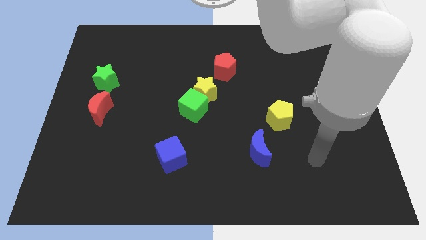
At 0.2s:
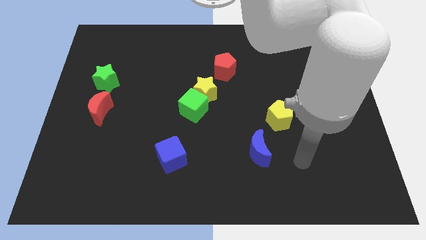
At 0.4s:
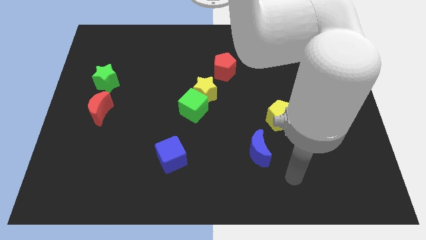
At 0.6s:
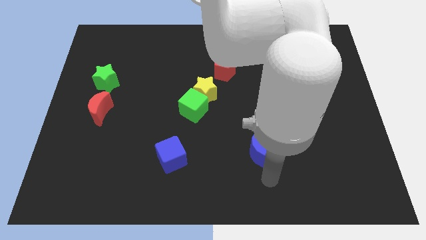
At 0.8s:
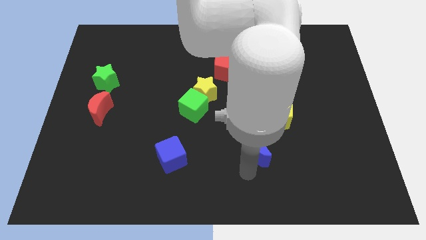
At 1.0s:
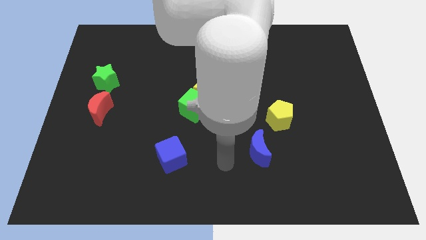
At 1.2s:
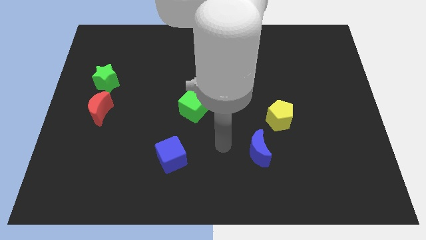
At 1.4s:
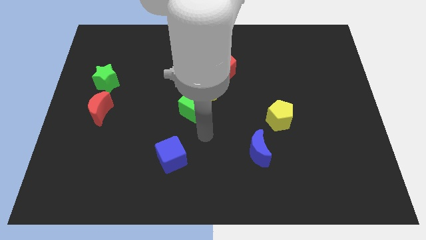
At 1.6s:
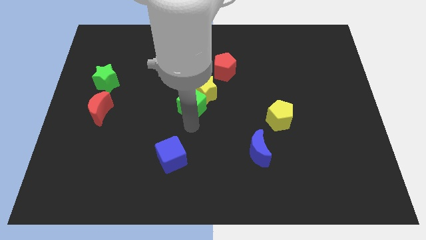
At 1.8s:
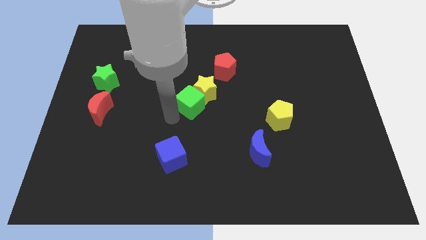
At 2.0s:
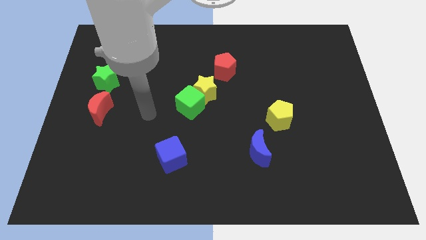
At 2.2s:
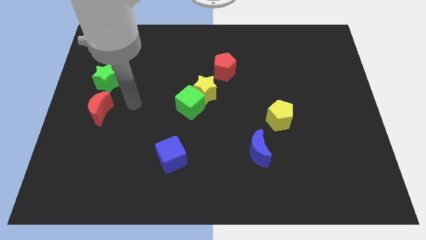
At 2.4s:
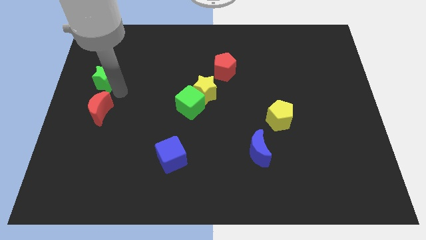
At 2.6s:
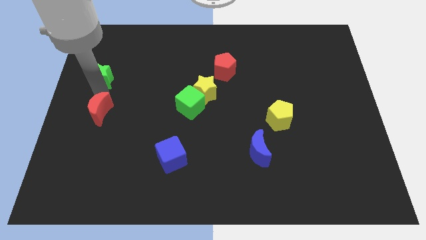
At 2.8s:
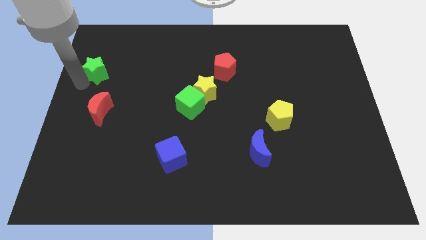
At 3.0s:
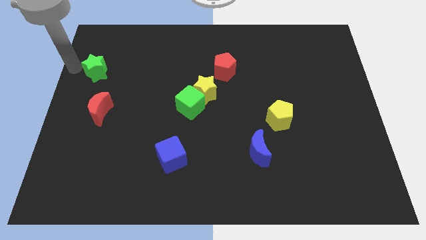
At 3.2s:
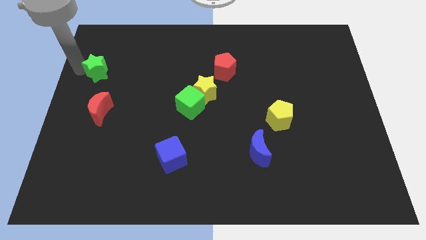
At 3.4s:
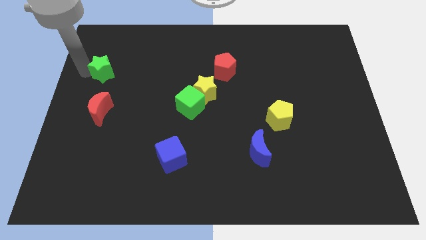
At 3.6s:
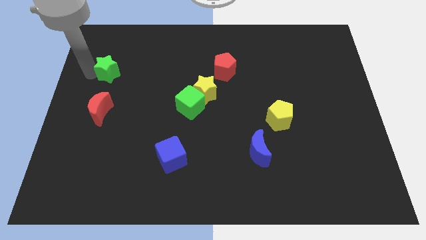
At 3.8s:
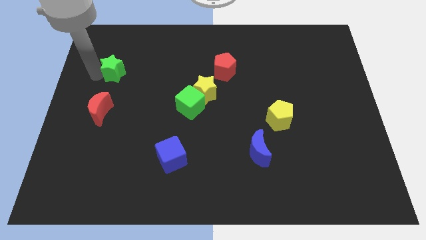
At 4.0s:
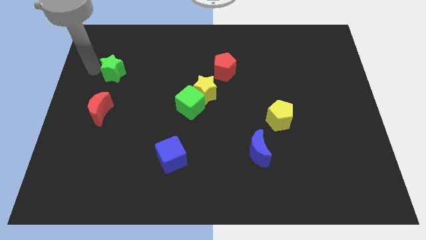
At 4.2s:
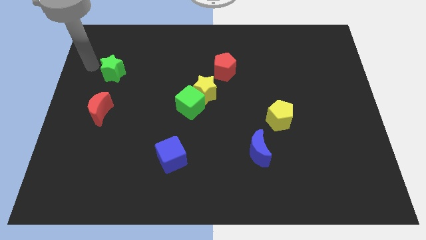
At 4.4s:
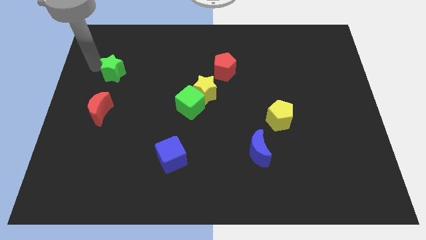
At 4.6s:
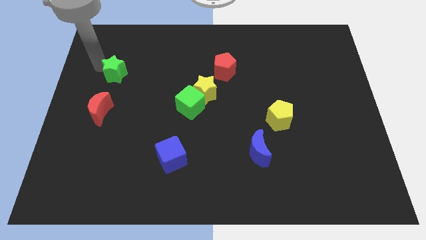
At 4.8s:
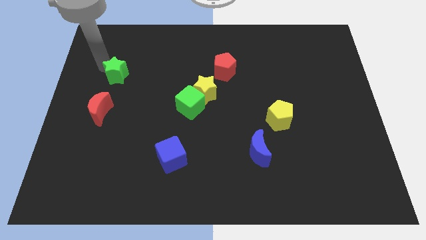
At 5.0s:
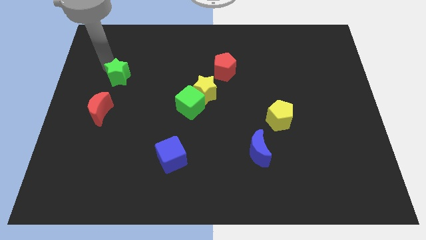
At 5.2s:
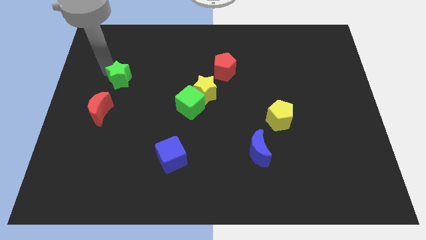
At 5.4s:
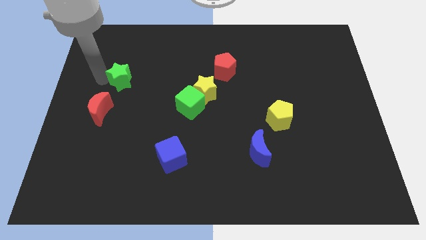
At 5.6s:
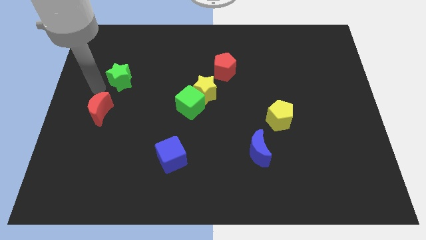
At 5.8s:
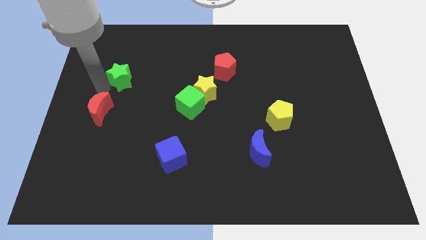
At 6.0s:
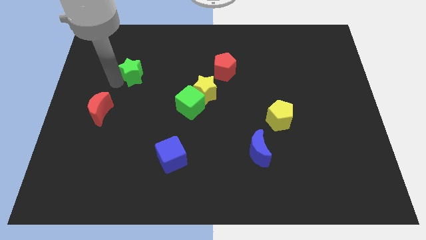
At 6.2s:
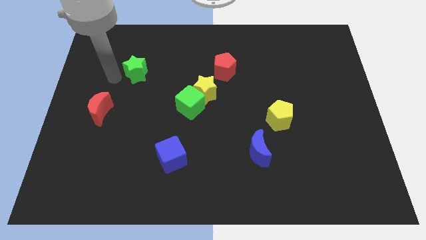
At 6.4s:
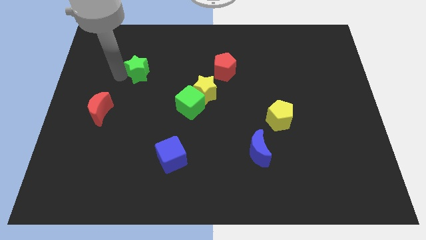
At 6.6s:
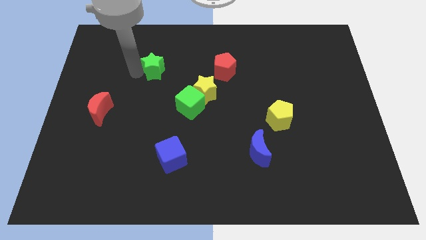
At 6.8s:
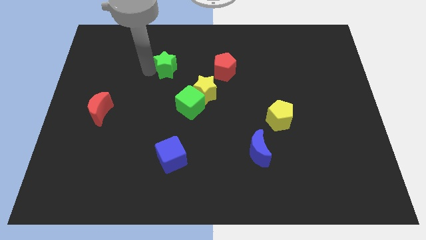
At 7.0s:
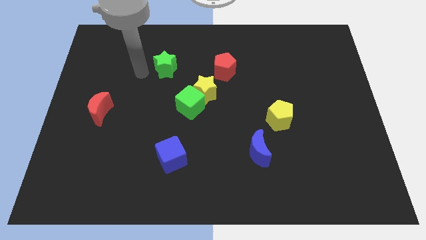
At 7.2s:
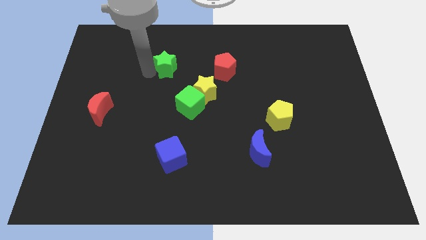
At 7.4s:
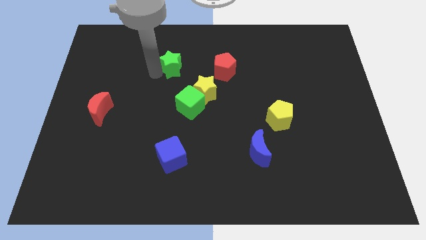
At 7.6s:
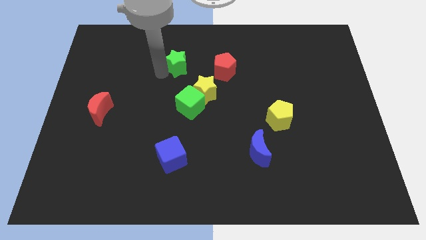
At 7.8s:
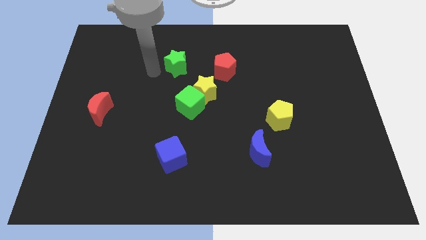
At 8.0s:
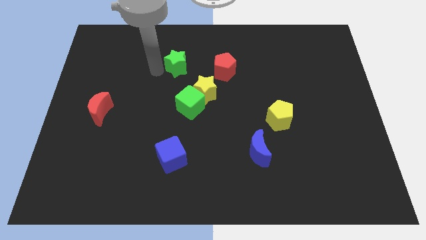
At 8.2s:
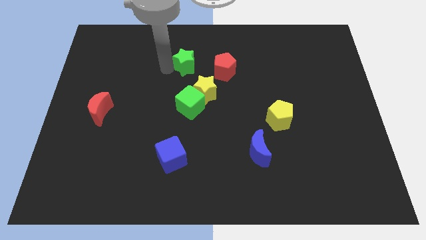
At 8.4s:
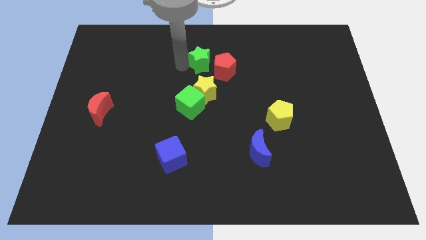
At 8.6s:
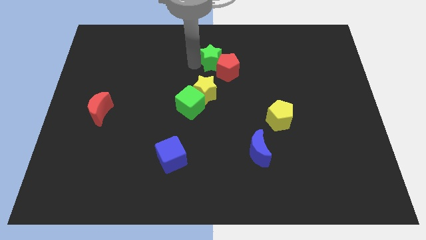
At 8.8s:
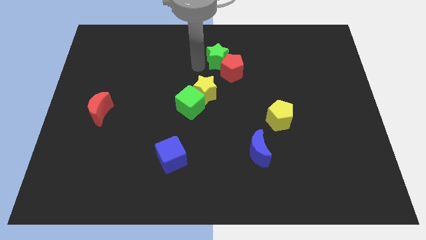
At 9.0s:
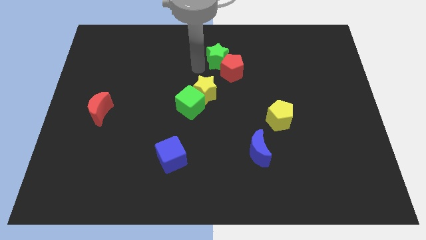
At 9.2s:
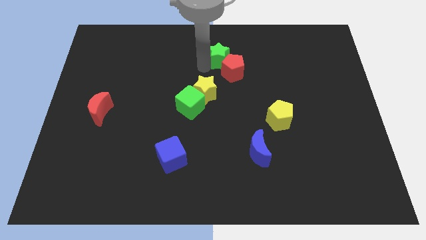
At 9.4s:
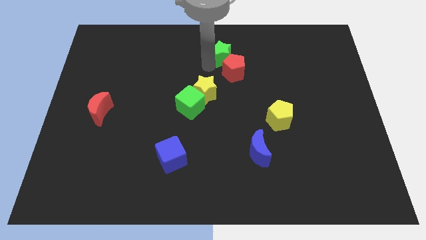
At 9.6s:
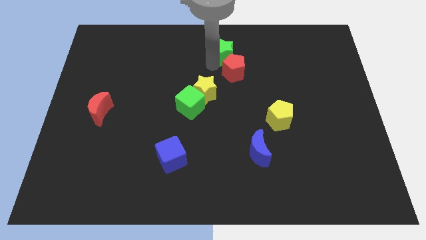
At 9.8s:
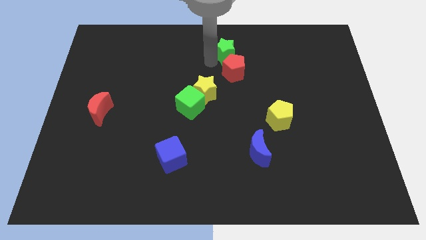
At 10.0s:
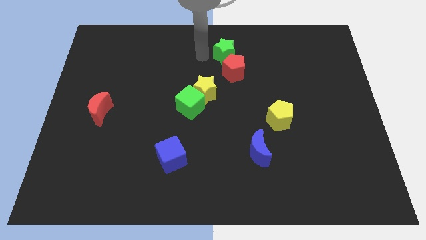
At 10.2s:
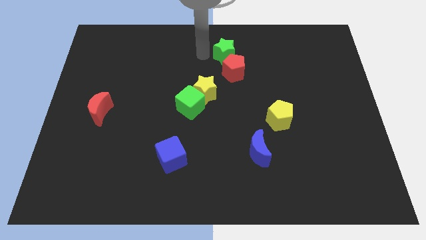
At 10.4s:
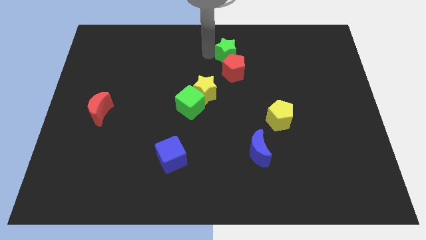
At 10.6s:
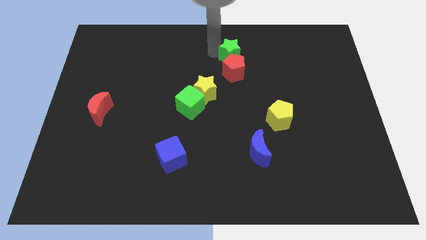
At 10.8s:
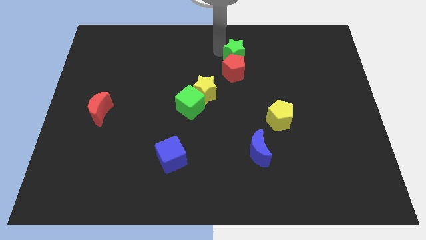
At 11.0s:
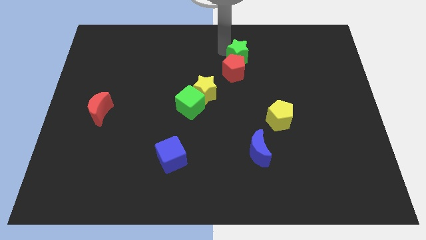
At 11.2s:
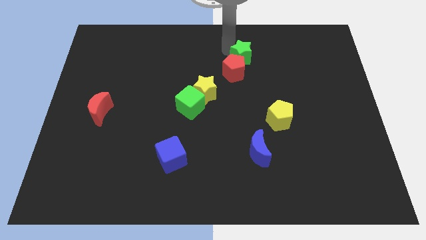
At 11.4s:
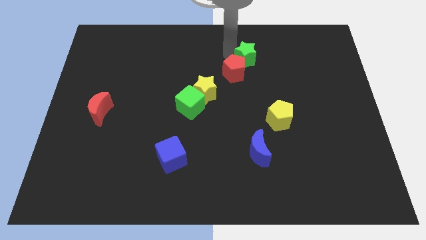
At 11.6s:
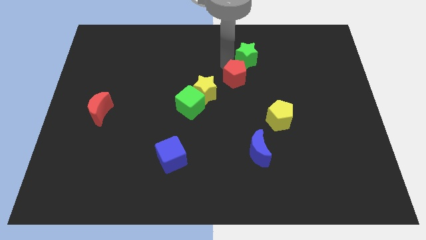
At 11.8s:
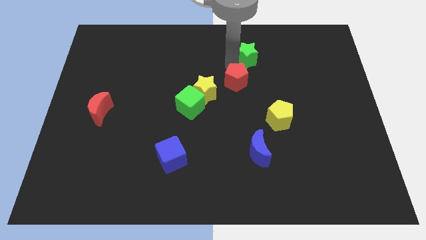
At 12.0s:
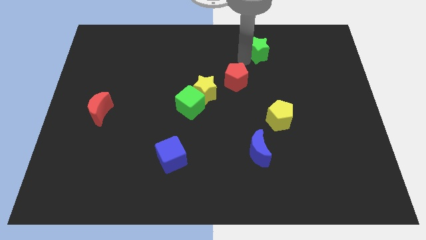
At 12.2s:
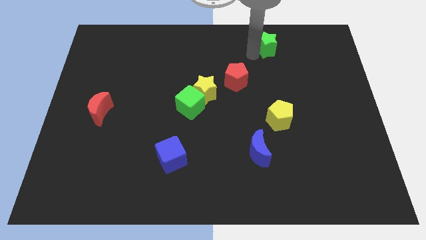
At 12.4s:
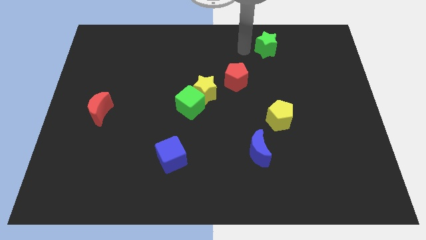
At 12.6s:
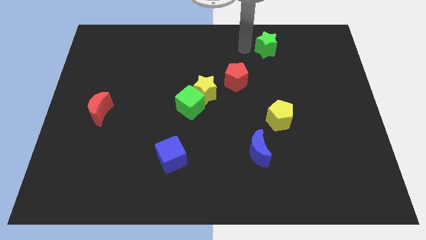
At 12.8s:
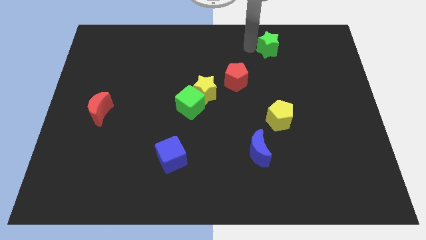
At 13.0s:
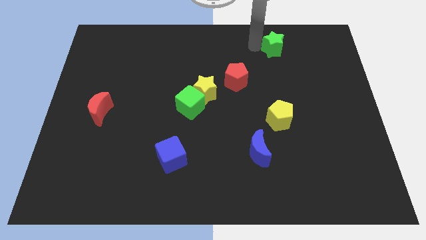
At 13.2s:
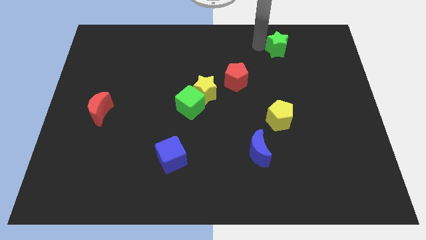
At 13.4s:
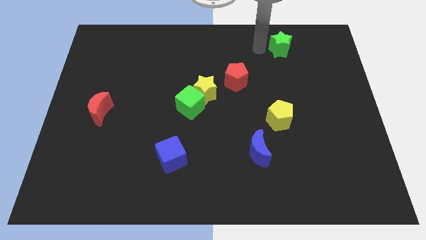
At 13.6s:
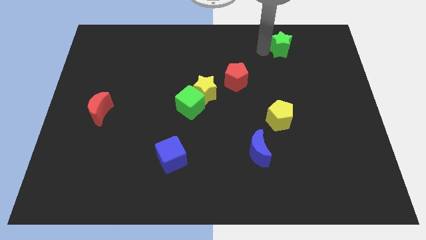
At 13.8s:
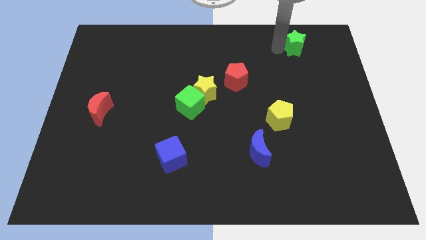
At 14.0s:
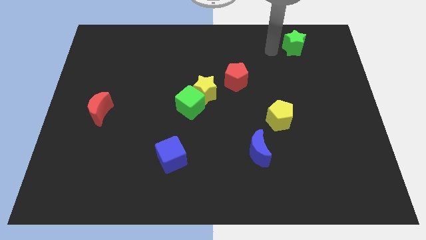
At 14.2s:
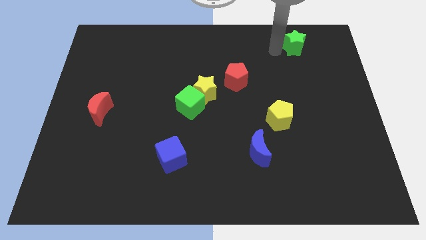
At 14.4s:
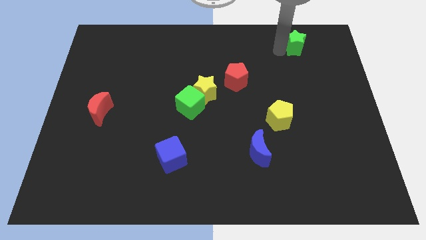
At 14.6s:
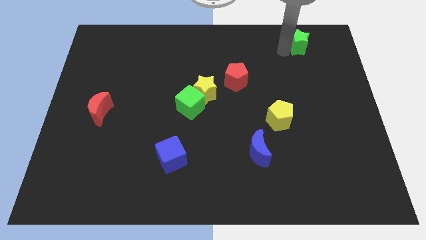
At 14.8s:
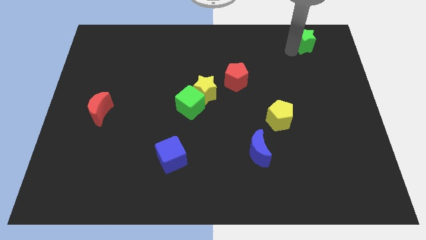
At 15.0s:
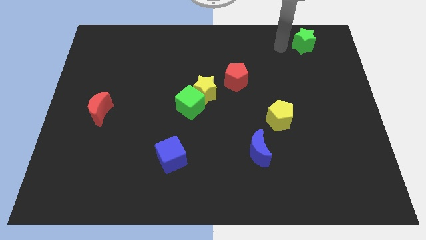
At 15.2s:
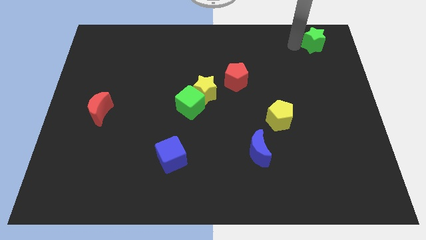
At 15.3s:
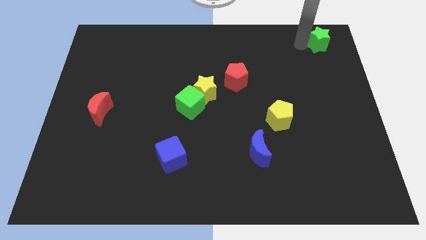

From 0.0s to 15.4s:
move the green star to the top right corner
